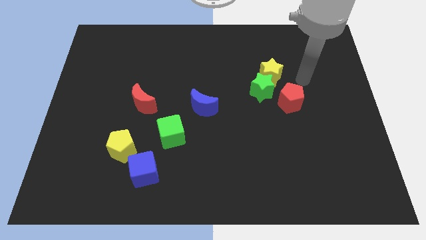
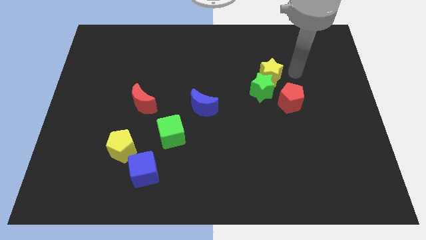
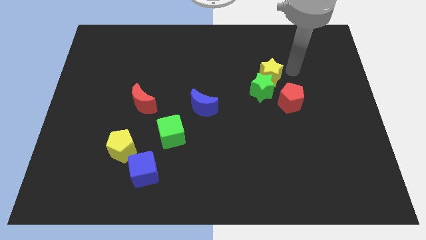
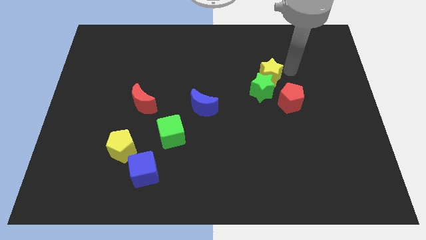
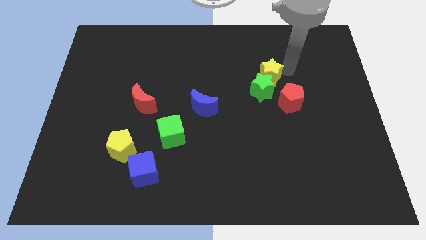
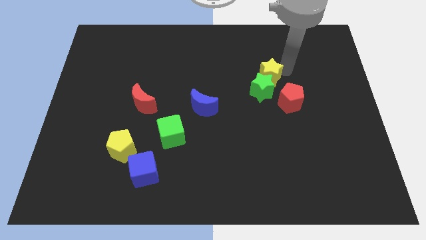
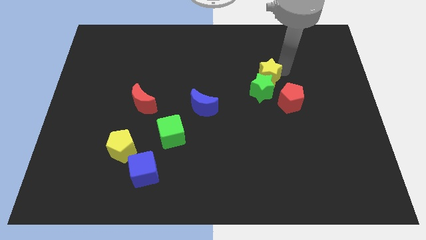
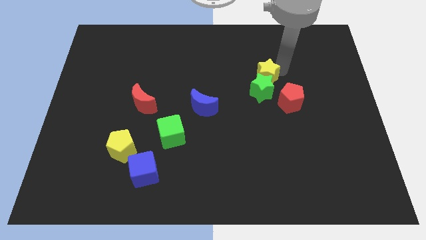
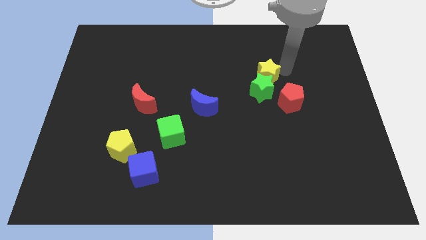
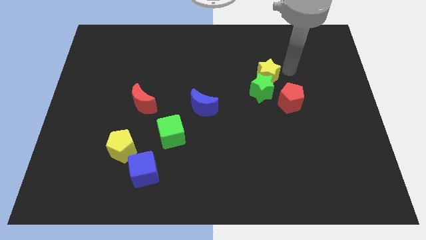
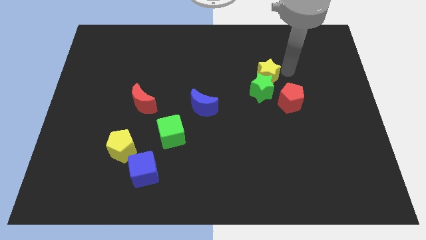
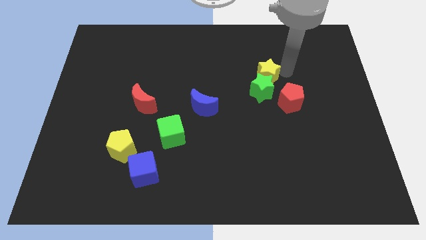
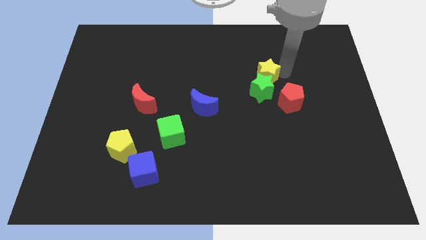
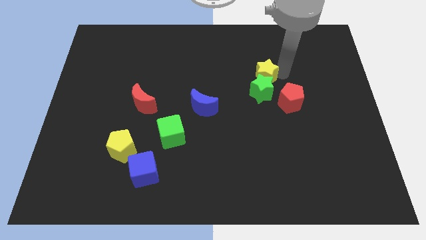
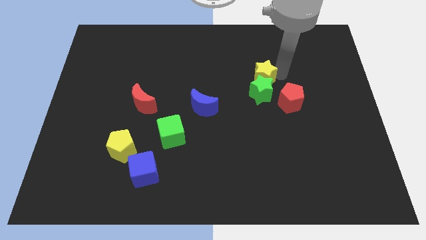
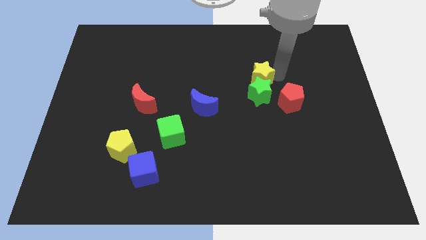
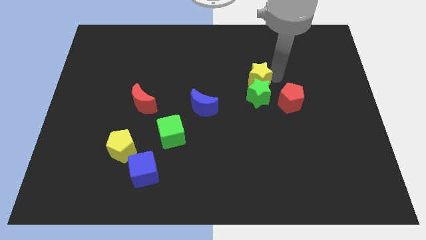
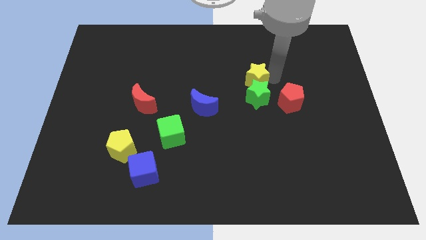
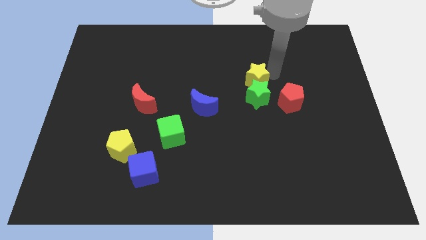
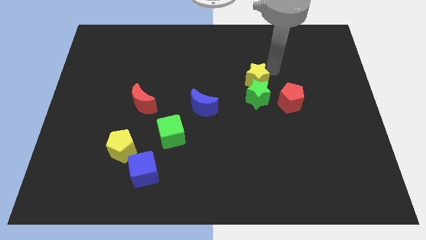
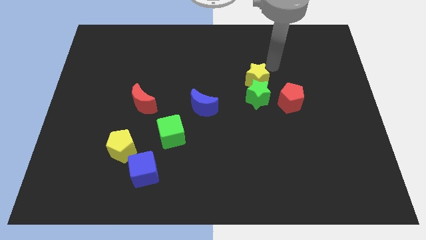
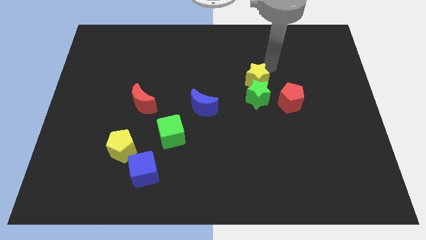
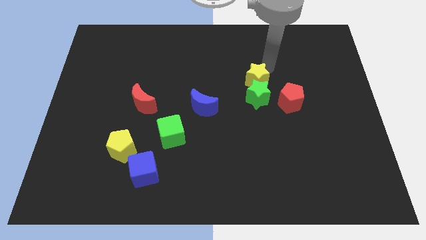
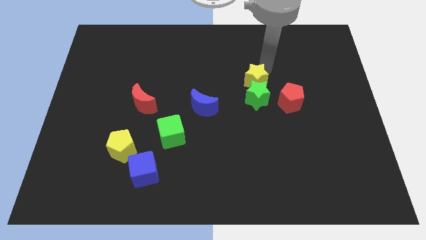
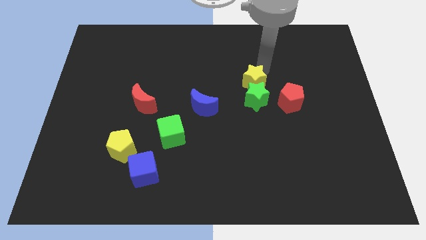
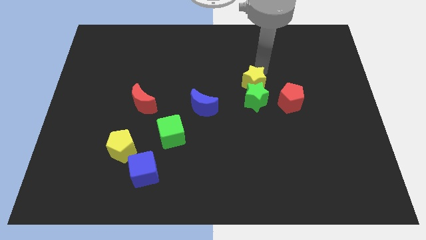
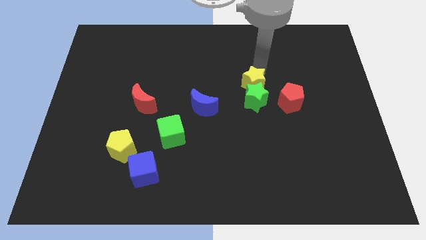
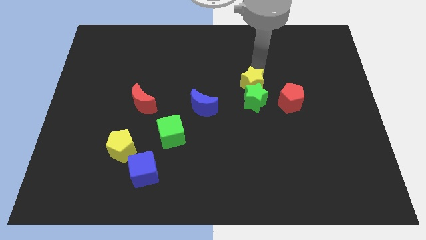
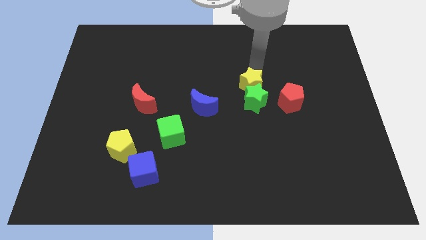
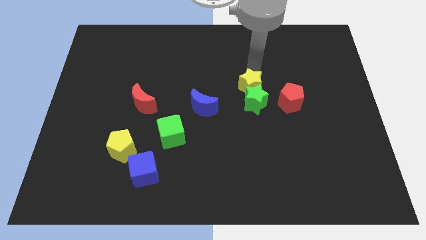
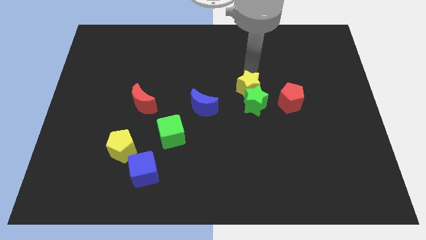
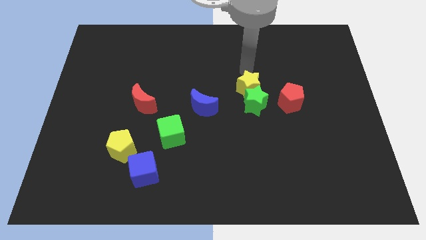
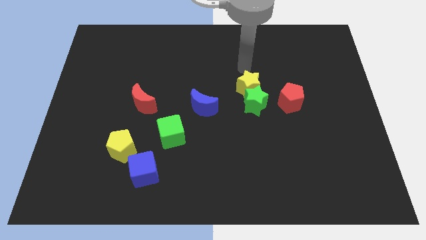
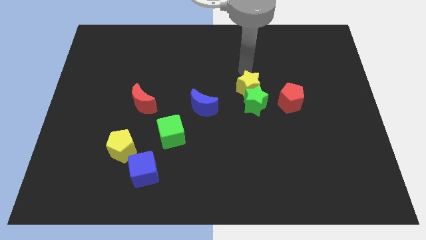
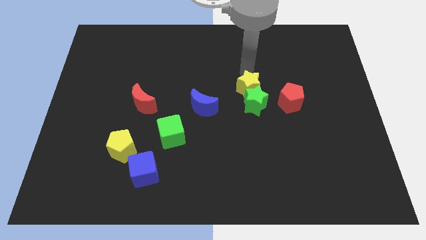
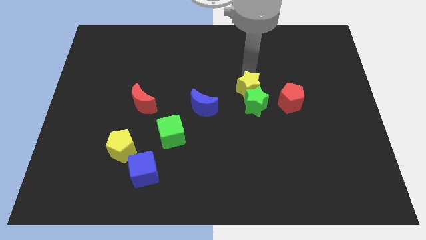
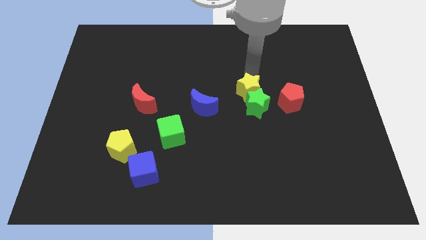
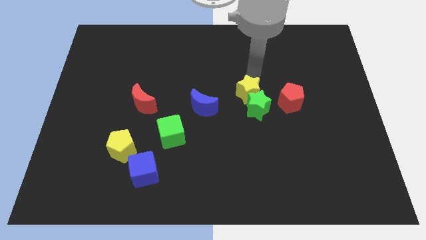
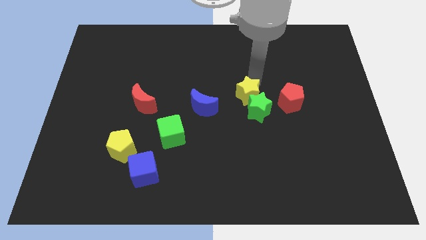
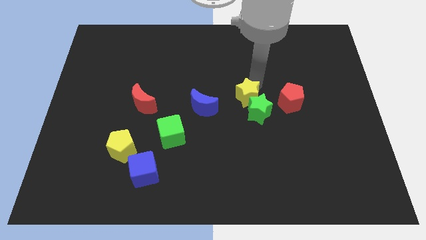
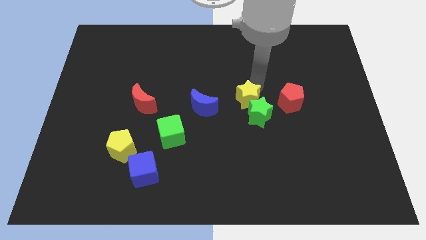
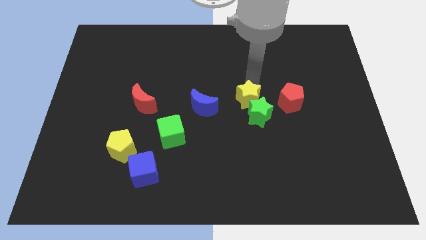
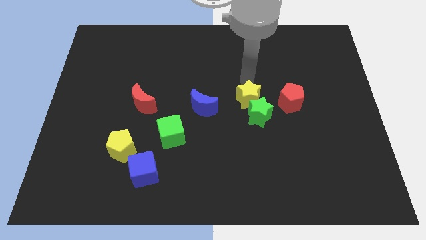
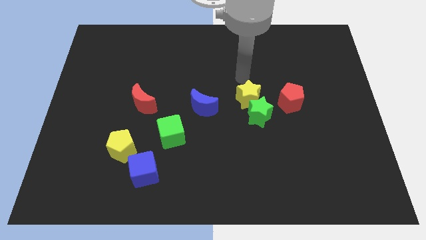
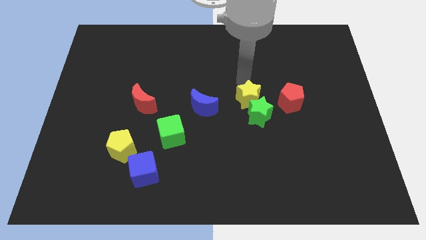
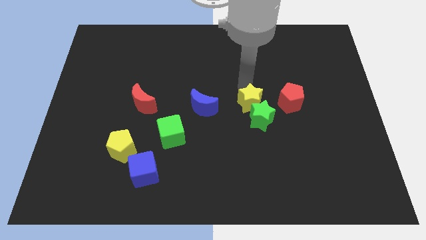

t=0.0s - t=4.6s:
move the yellow star downwards a little

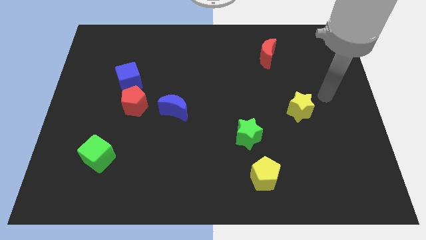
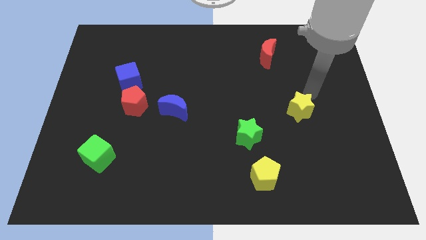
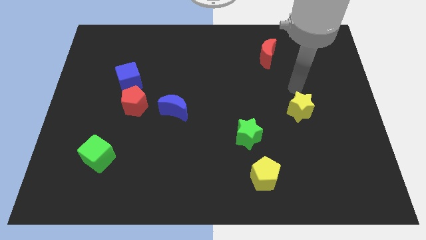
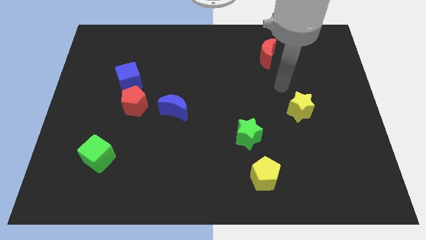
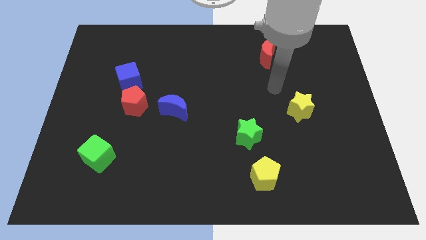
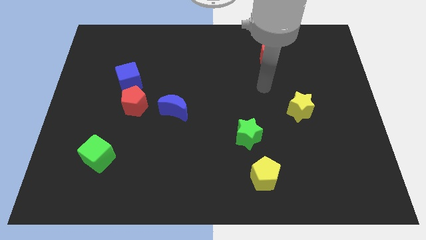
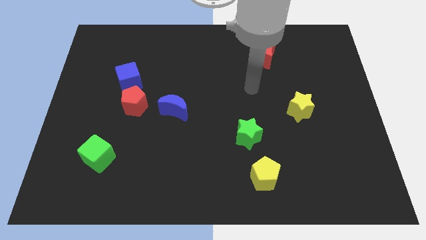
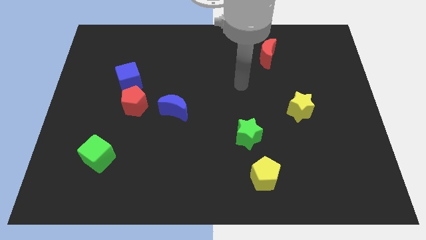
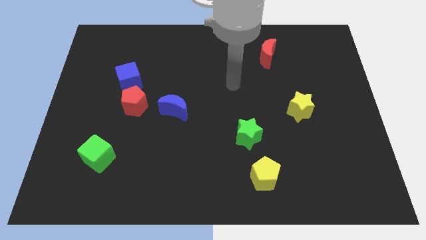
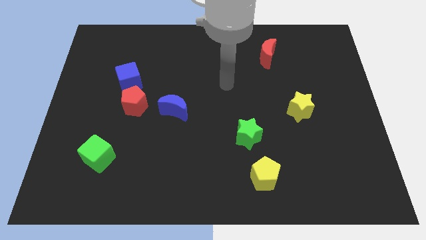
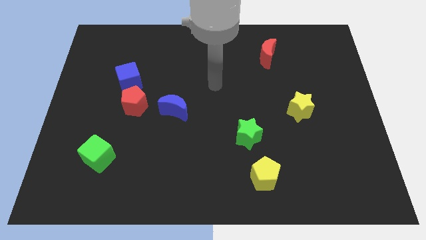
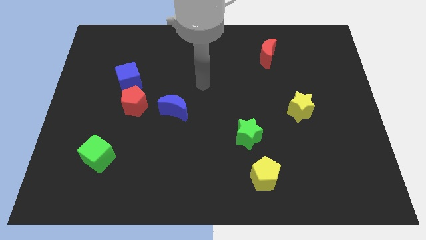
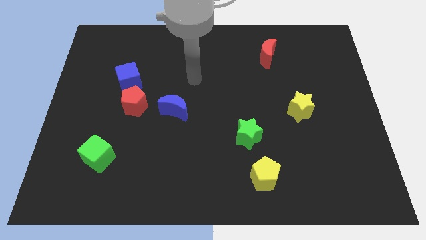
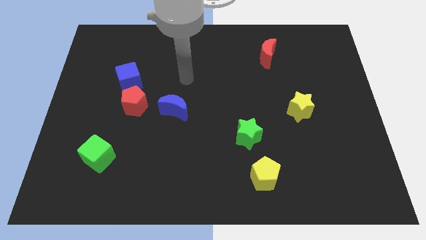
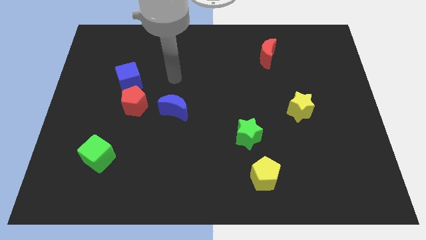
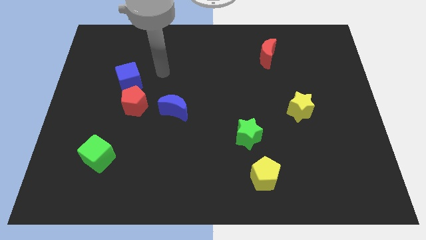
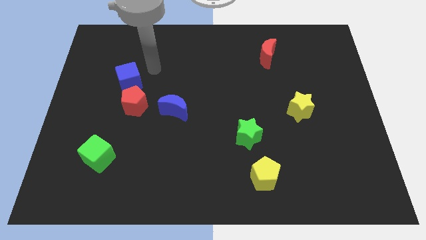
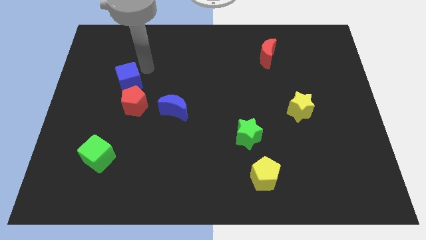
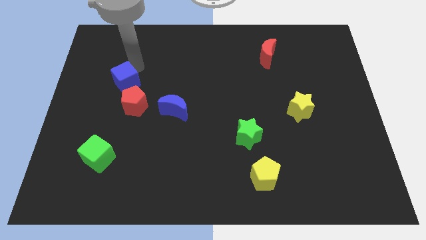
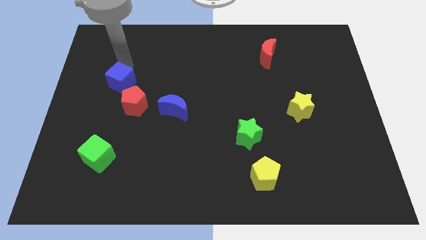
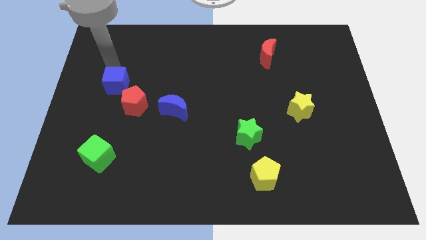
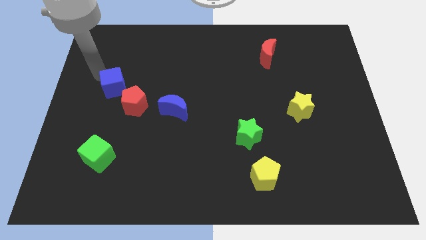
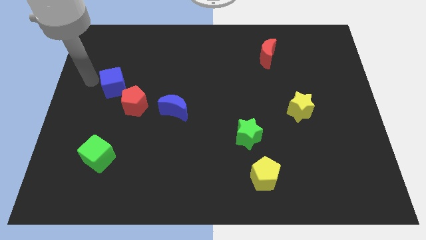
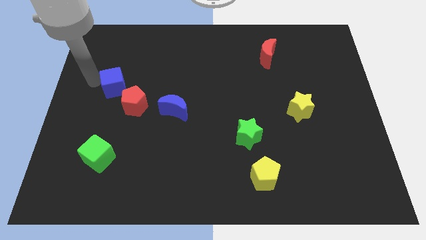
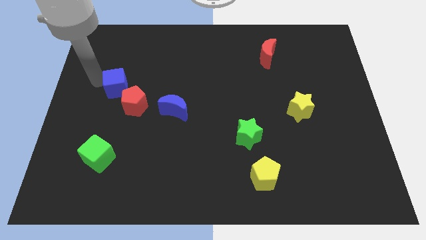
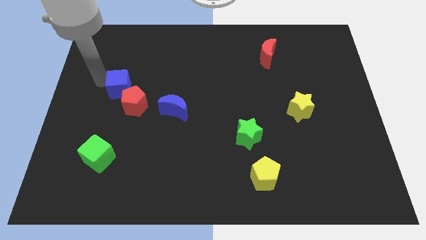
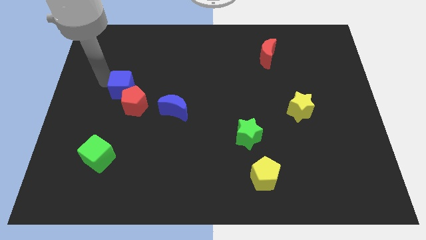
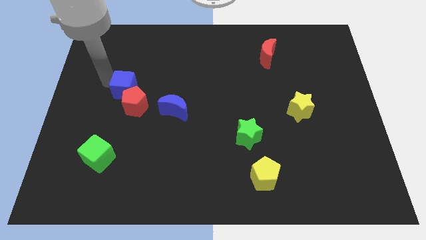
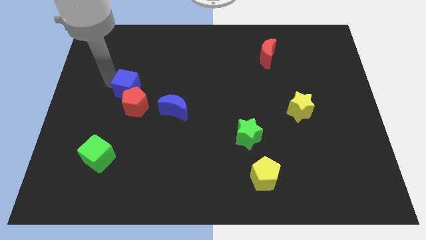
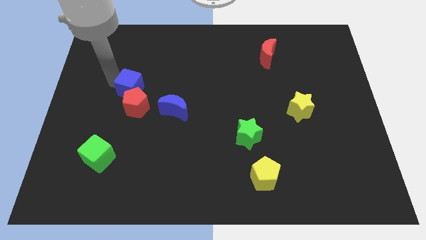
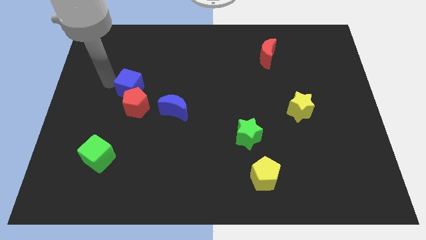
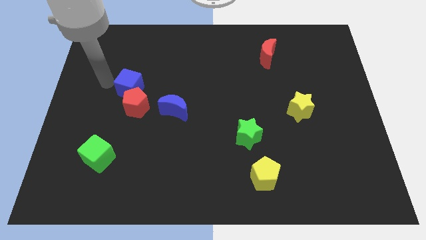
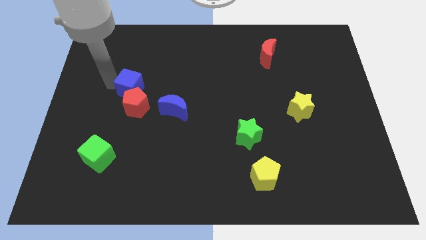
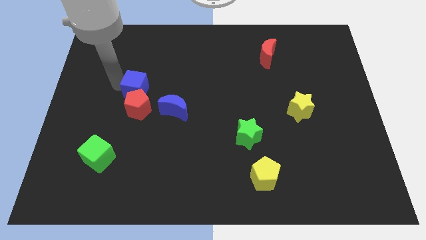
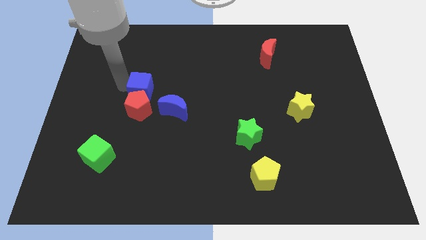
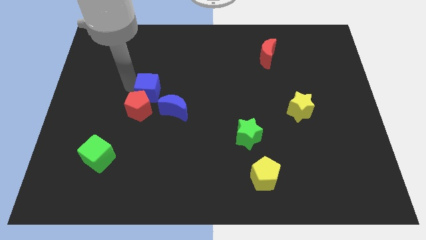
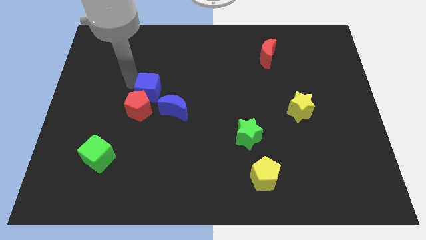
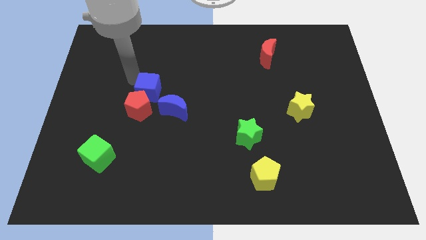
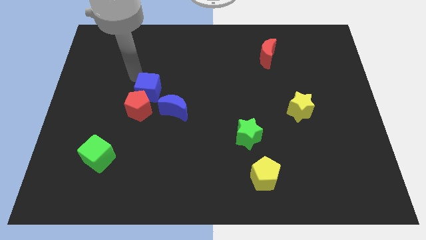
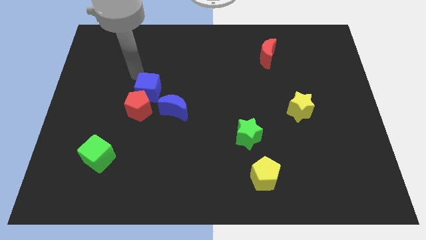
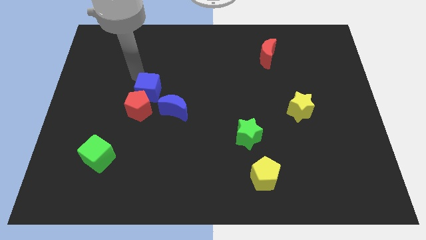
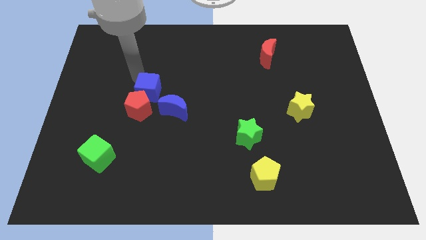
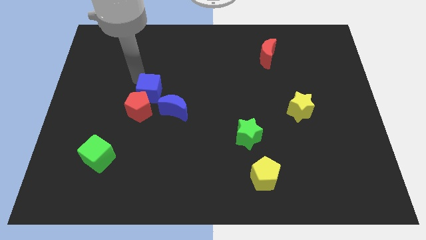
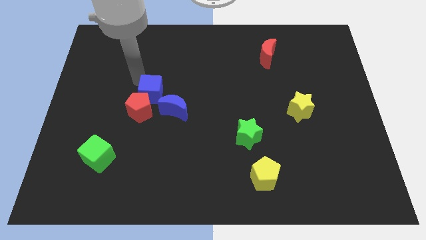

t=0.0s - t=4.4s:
slightly push the blue cube down and to the right diagonally
